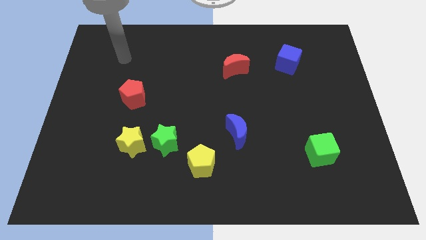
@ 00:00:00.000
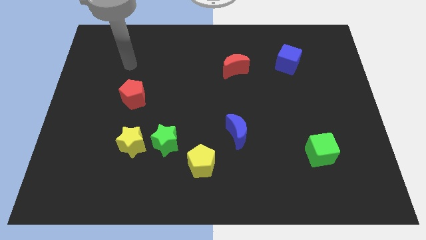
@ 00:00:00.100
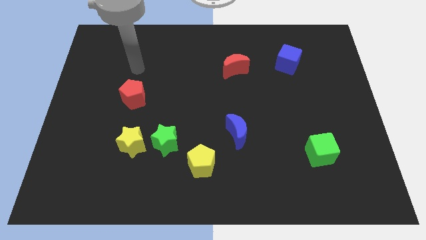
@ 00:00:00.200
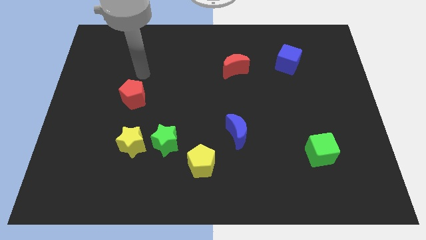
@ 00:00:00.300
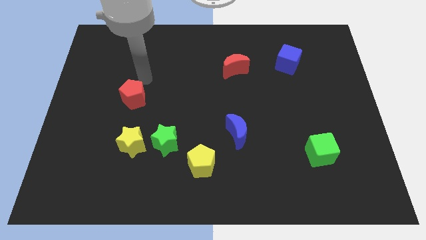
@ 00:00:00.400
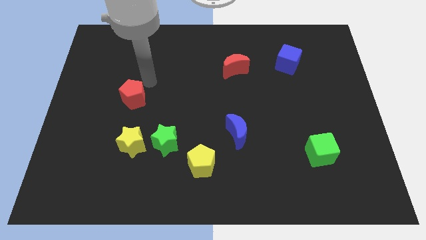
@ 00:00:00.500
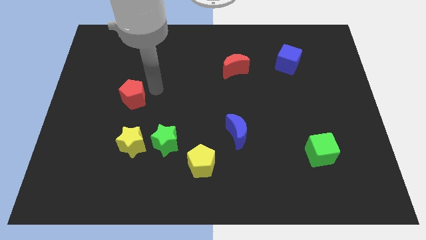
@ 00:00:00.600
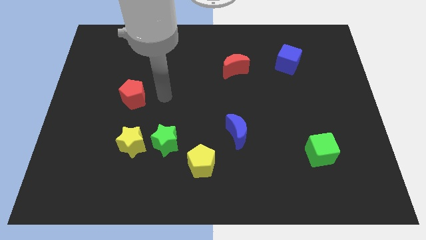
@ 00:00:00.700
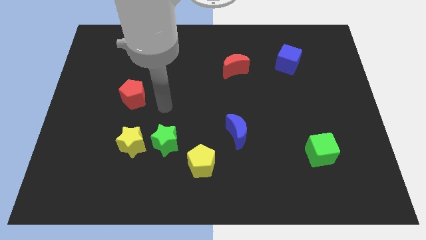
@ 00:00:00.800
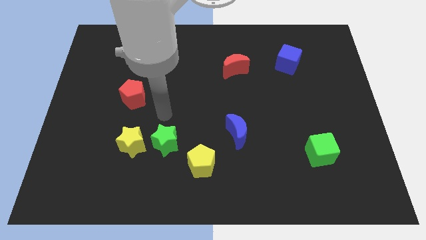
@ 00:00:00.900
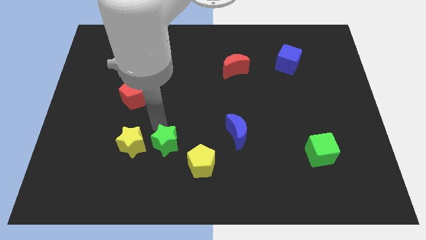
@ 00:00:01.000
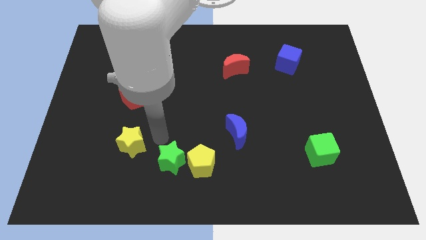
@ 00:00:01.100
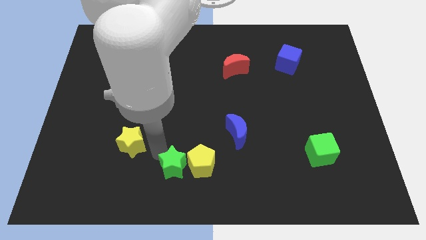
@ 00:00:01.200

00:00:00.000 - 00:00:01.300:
pull the yellow star apart from the green star

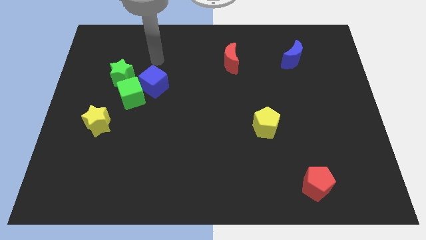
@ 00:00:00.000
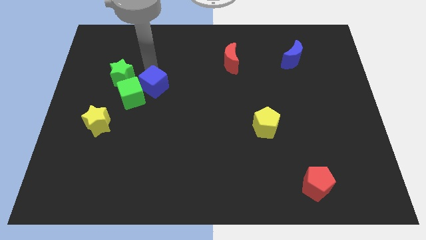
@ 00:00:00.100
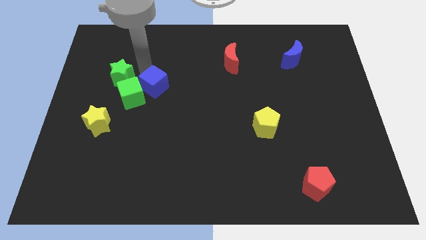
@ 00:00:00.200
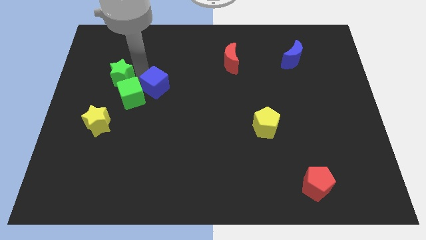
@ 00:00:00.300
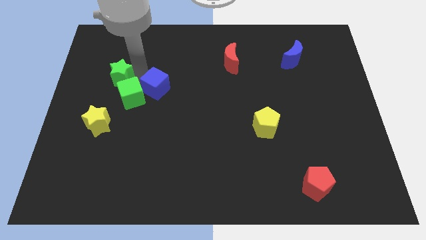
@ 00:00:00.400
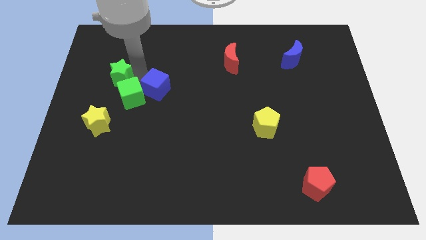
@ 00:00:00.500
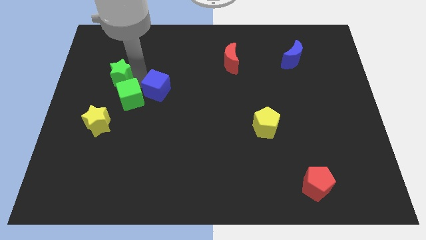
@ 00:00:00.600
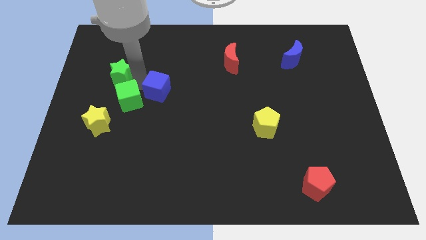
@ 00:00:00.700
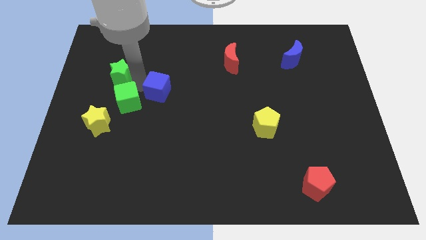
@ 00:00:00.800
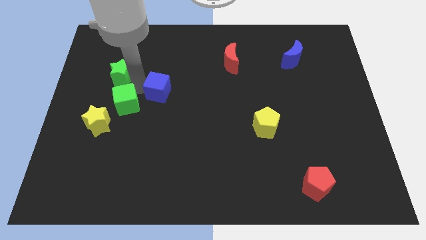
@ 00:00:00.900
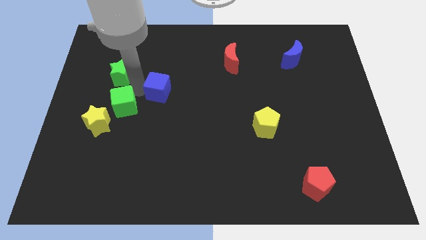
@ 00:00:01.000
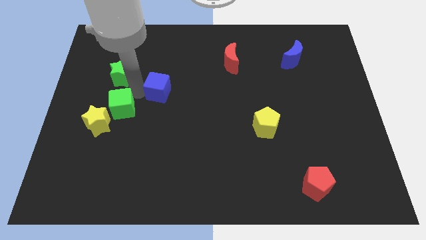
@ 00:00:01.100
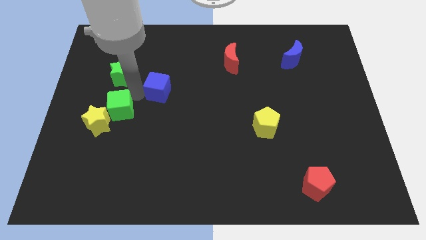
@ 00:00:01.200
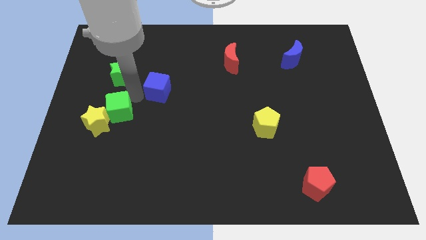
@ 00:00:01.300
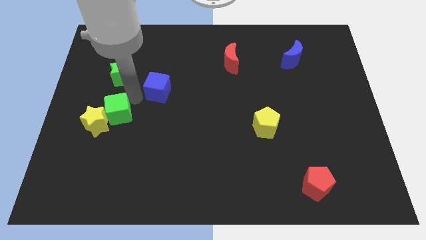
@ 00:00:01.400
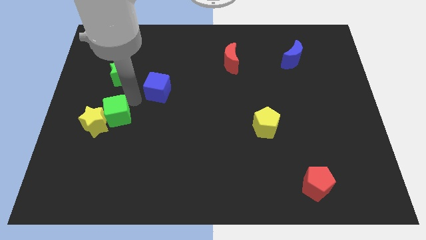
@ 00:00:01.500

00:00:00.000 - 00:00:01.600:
pull the green cube apart from the blue cube and green star

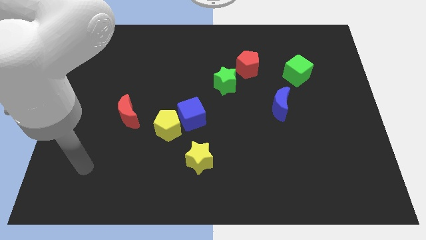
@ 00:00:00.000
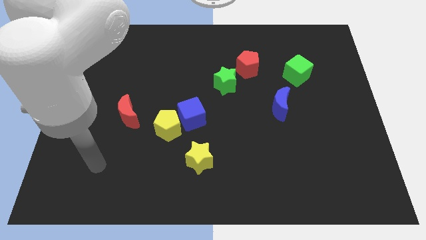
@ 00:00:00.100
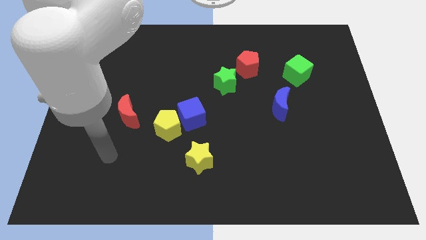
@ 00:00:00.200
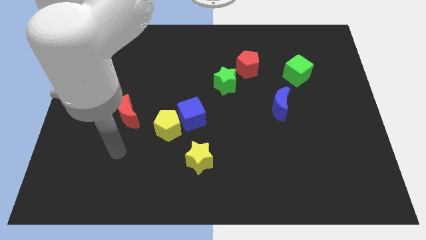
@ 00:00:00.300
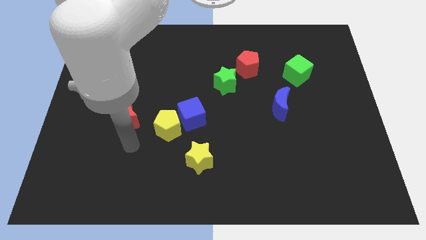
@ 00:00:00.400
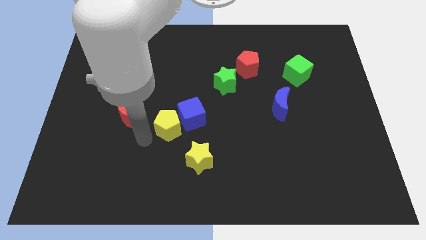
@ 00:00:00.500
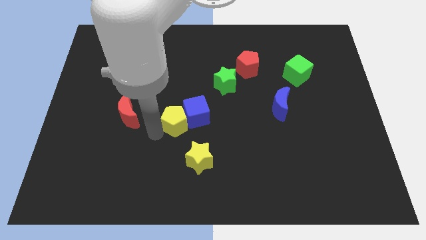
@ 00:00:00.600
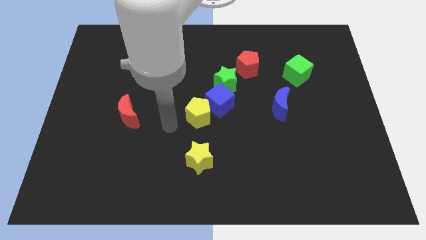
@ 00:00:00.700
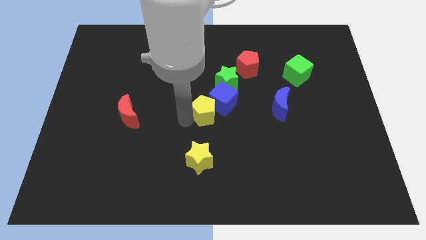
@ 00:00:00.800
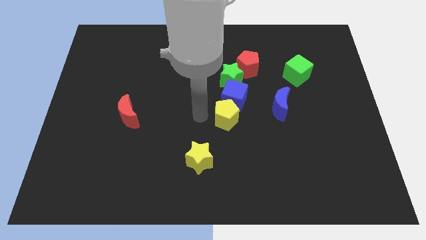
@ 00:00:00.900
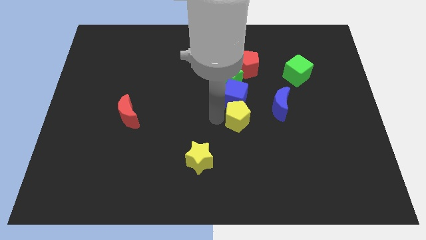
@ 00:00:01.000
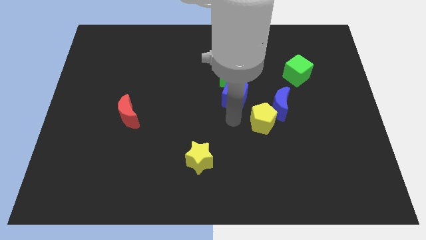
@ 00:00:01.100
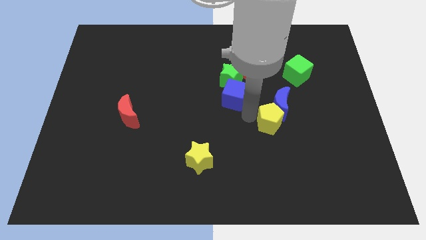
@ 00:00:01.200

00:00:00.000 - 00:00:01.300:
separate the blue cube from the yellow pentagon

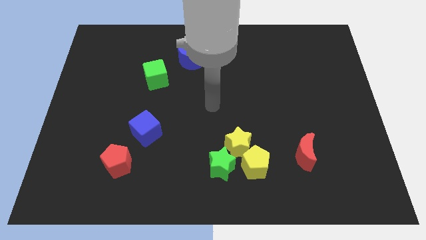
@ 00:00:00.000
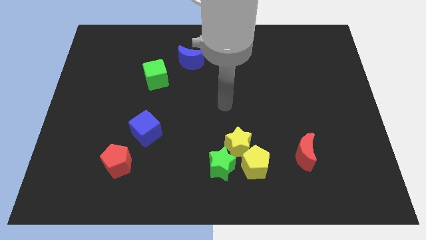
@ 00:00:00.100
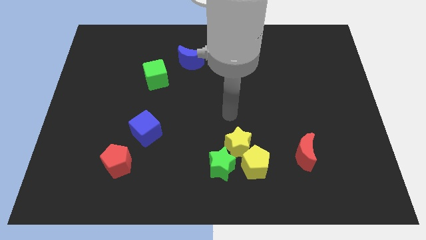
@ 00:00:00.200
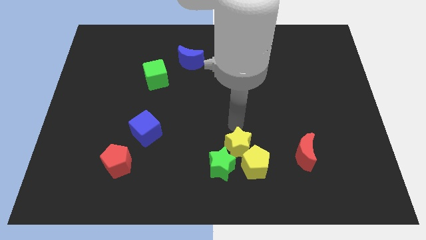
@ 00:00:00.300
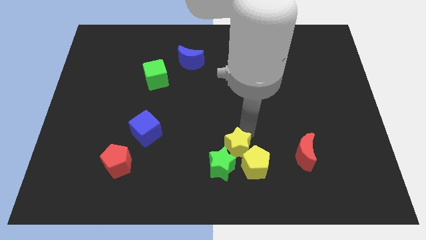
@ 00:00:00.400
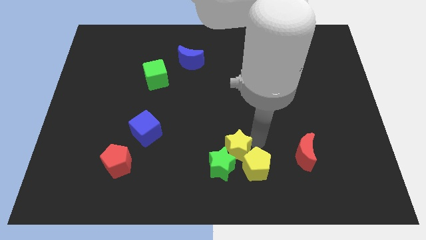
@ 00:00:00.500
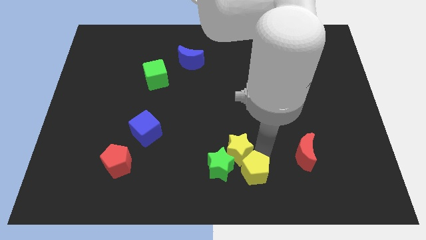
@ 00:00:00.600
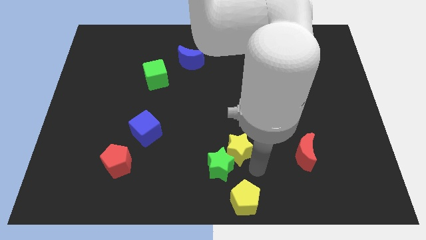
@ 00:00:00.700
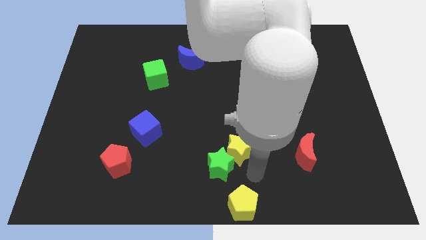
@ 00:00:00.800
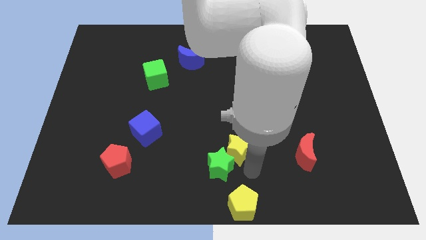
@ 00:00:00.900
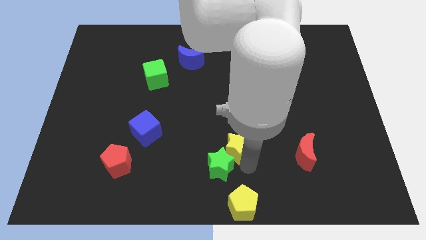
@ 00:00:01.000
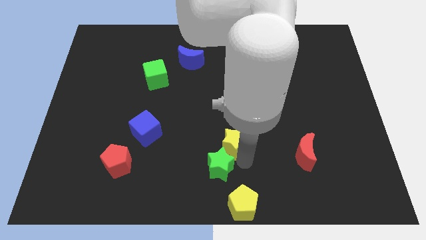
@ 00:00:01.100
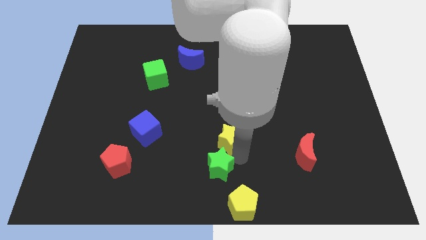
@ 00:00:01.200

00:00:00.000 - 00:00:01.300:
pull the yellow star apart from the yellow pentagon and green star

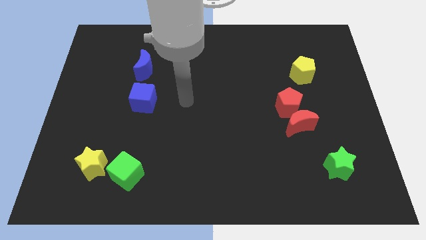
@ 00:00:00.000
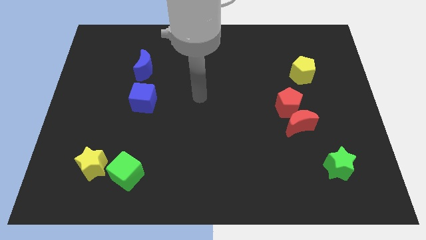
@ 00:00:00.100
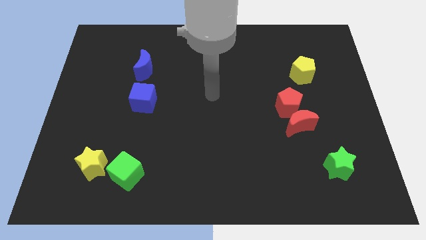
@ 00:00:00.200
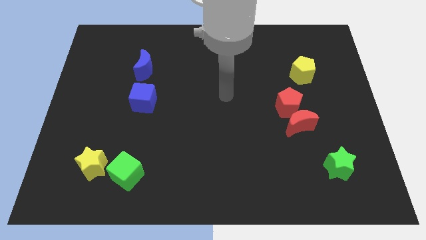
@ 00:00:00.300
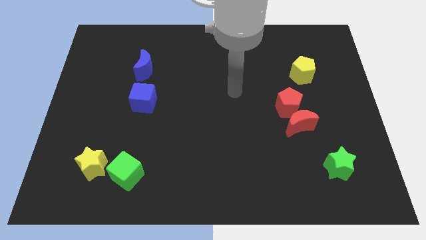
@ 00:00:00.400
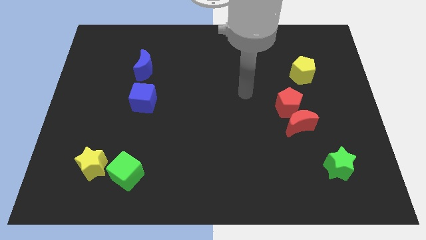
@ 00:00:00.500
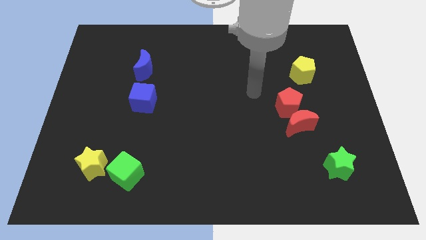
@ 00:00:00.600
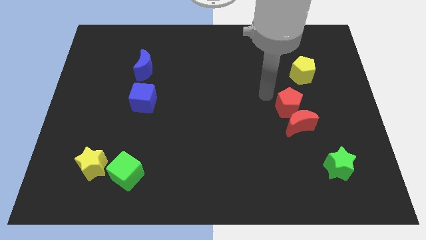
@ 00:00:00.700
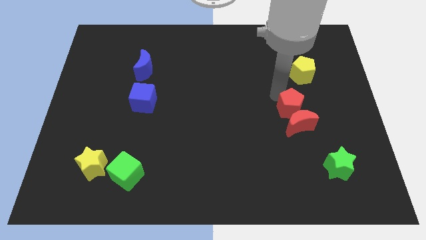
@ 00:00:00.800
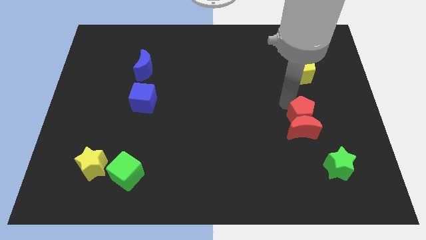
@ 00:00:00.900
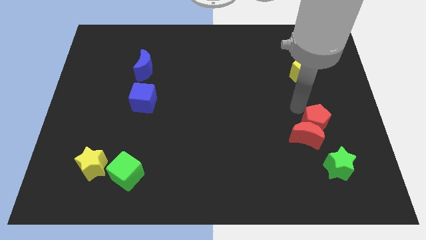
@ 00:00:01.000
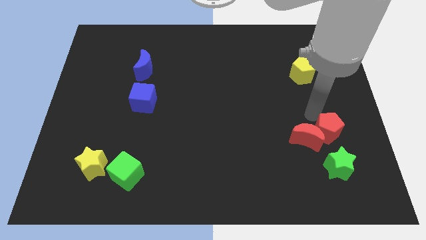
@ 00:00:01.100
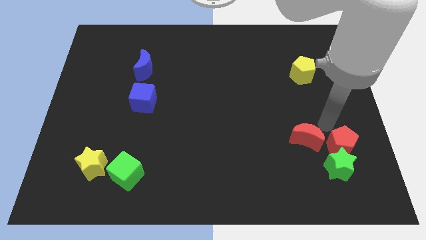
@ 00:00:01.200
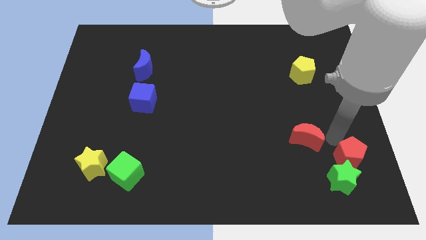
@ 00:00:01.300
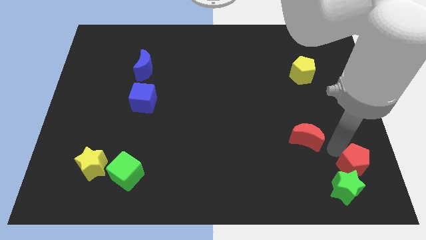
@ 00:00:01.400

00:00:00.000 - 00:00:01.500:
move the red moon away from the red pentagon

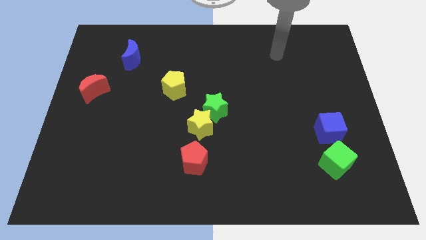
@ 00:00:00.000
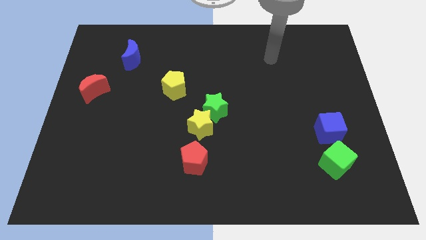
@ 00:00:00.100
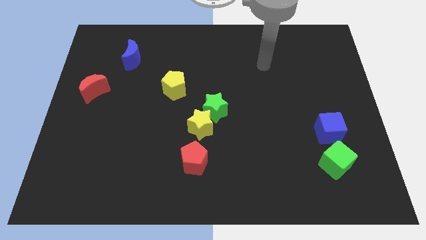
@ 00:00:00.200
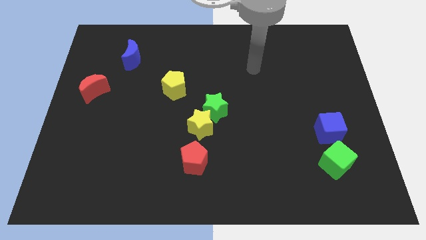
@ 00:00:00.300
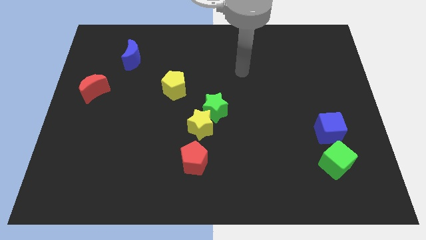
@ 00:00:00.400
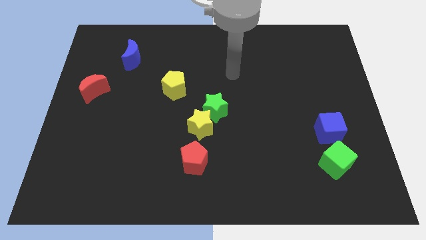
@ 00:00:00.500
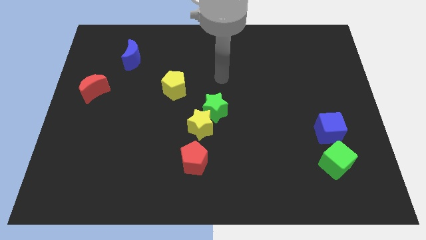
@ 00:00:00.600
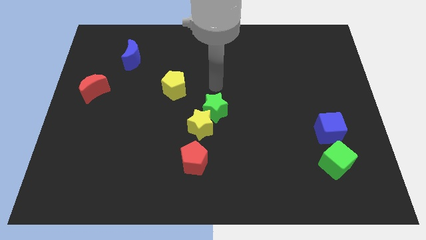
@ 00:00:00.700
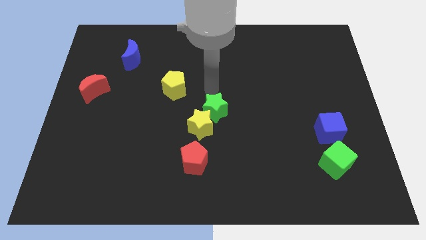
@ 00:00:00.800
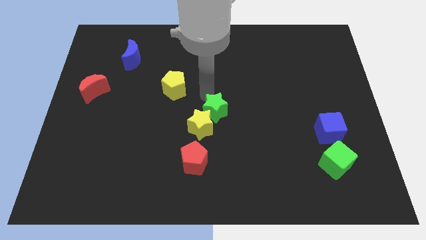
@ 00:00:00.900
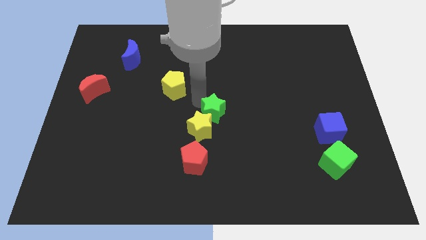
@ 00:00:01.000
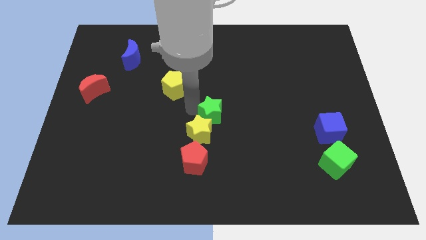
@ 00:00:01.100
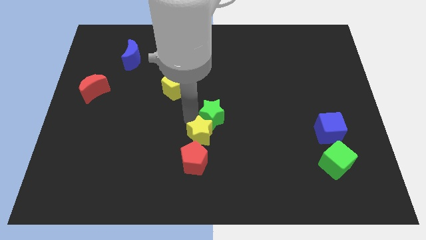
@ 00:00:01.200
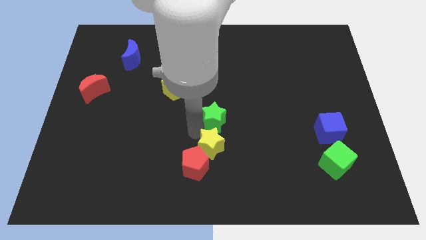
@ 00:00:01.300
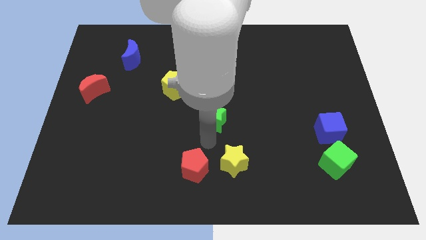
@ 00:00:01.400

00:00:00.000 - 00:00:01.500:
separate the green star from the yellow star

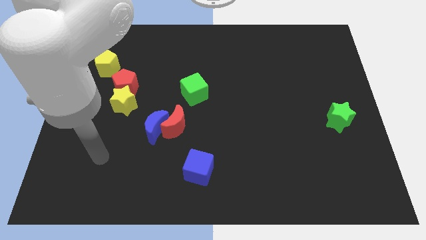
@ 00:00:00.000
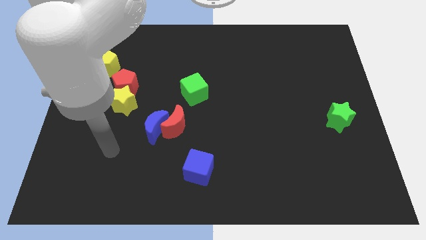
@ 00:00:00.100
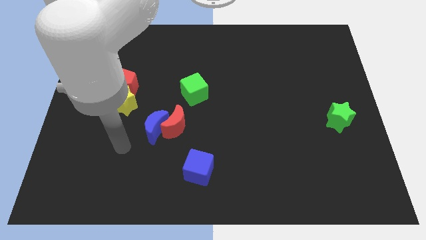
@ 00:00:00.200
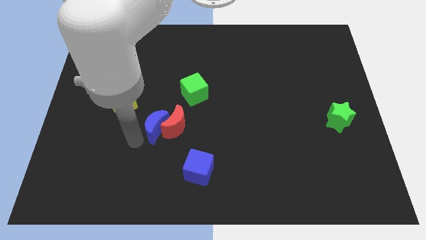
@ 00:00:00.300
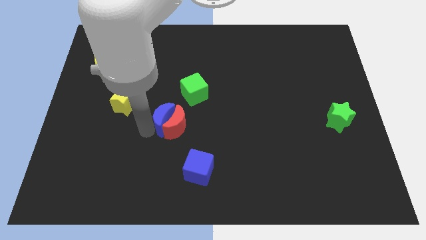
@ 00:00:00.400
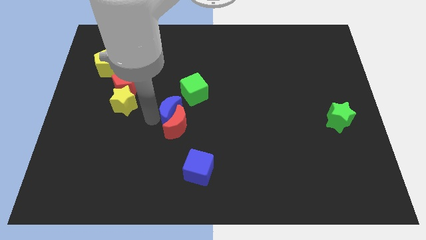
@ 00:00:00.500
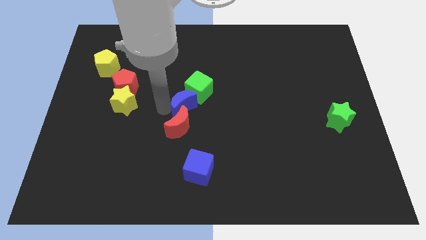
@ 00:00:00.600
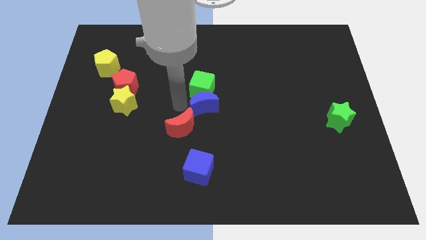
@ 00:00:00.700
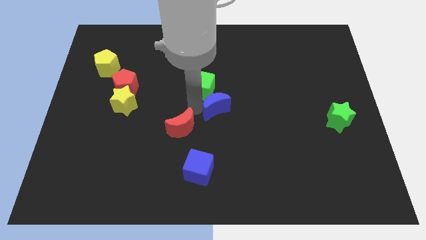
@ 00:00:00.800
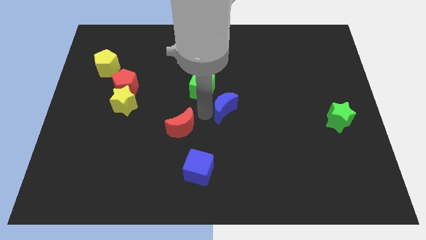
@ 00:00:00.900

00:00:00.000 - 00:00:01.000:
move the red moon away from the blue moon
